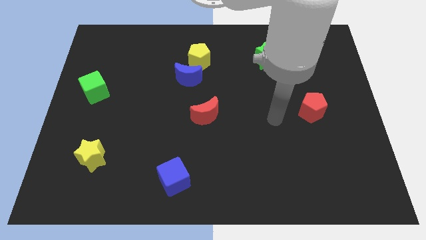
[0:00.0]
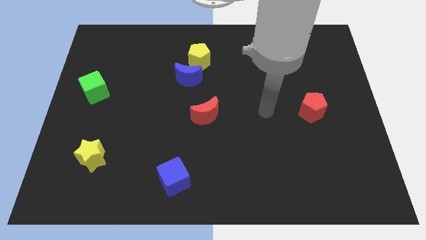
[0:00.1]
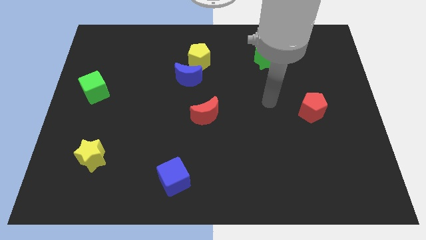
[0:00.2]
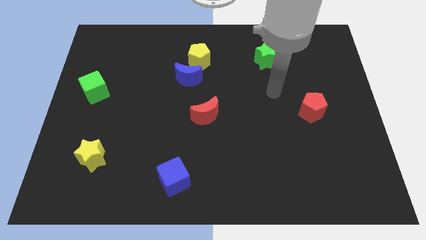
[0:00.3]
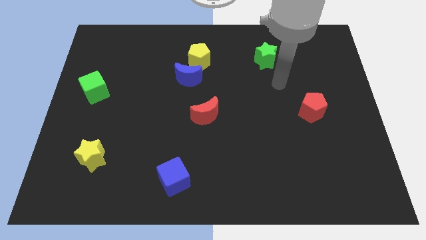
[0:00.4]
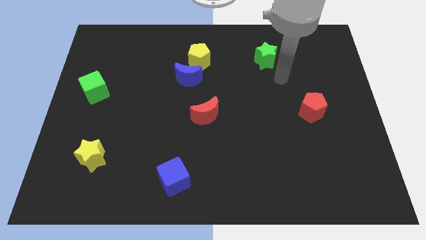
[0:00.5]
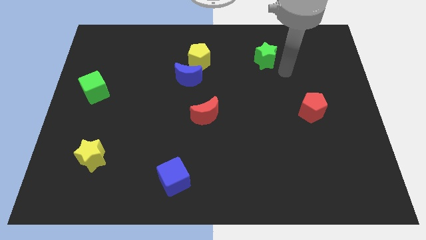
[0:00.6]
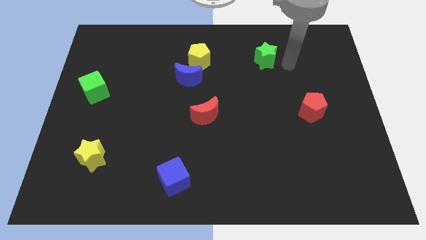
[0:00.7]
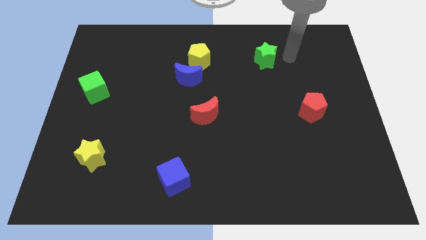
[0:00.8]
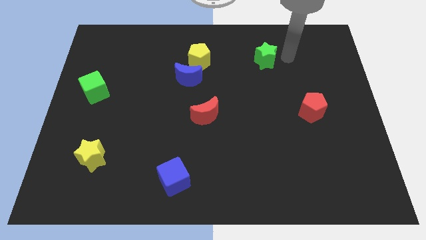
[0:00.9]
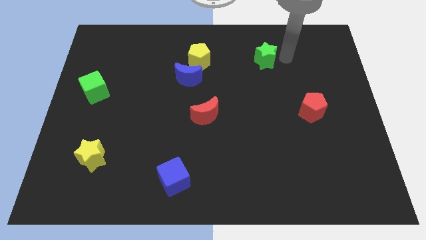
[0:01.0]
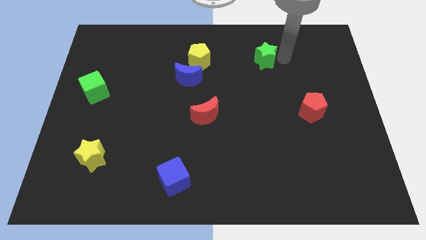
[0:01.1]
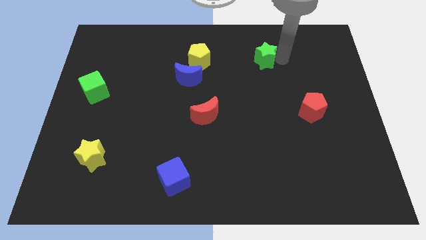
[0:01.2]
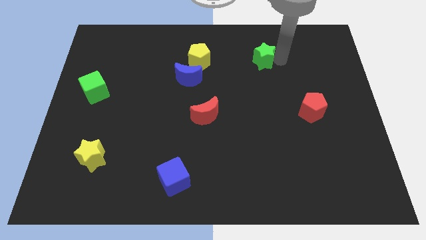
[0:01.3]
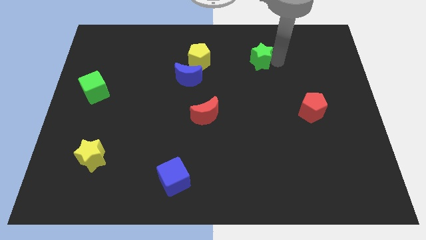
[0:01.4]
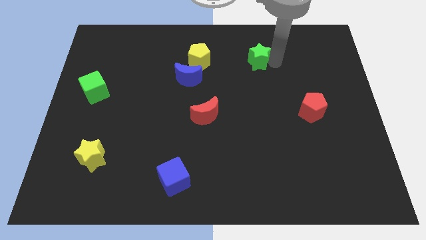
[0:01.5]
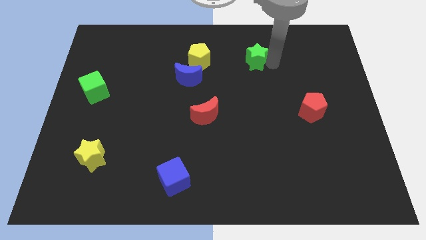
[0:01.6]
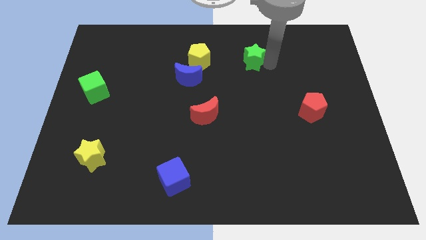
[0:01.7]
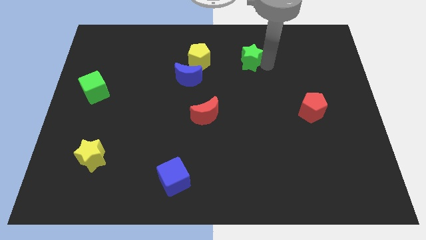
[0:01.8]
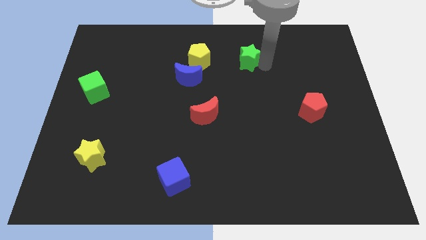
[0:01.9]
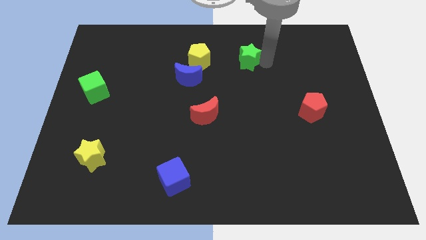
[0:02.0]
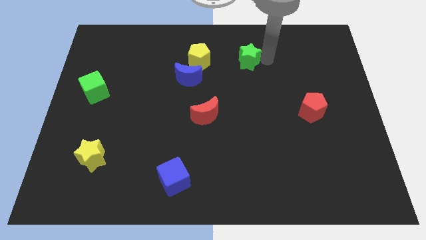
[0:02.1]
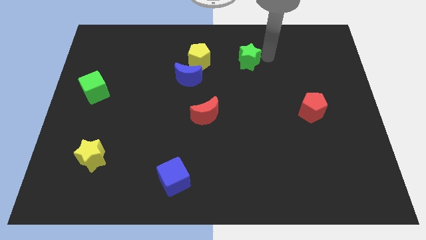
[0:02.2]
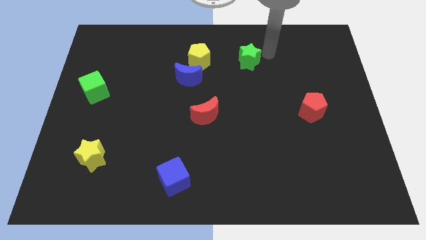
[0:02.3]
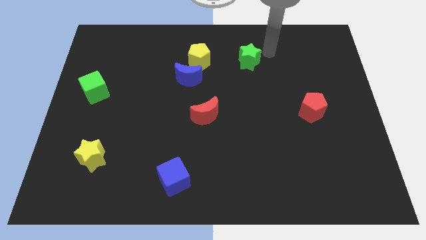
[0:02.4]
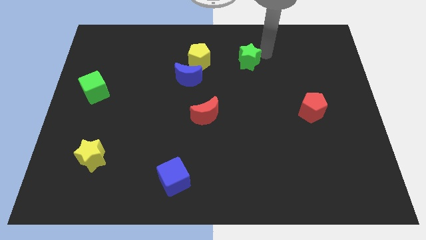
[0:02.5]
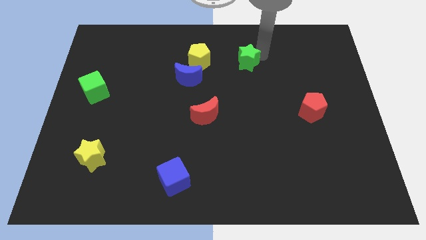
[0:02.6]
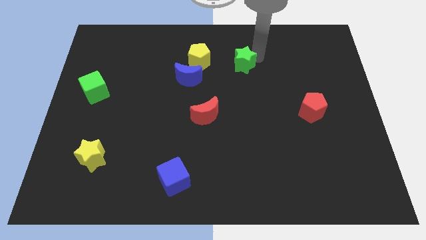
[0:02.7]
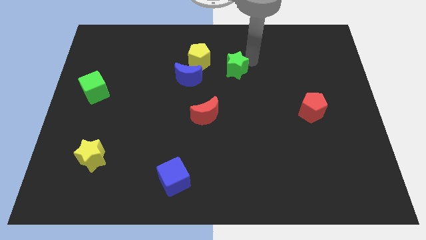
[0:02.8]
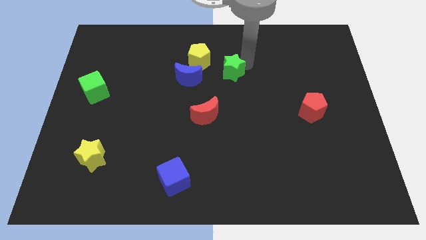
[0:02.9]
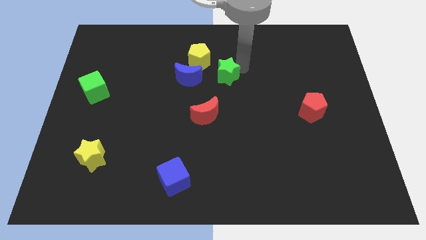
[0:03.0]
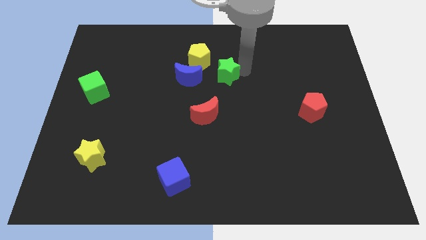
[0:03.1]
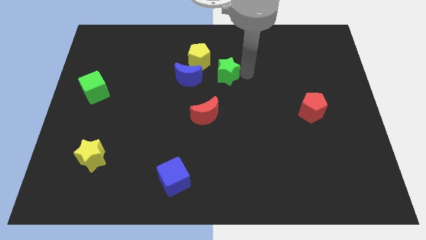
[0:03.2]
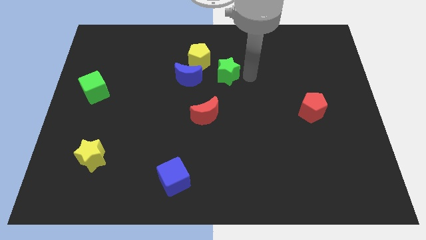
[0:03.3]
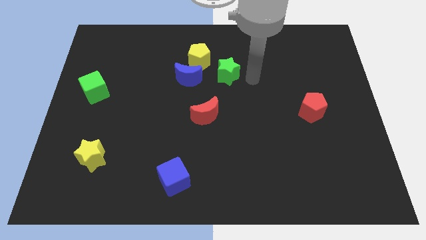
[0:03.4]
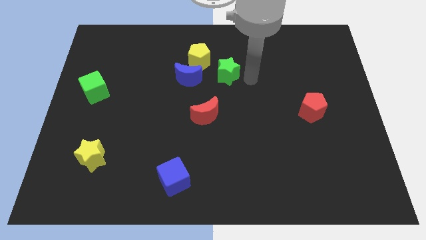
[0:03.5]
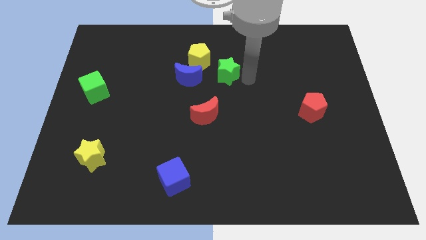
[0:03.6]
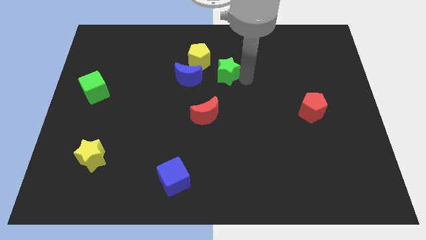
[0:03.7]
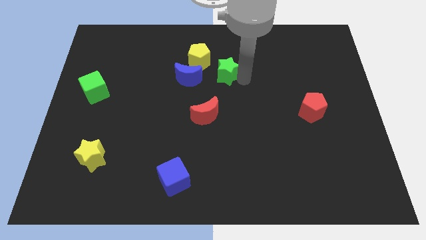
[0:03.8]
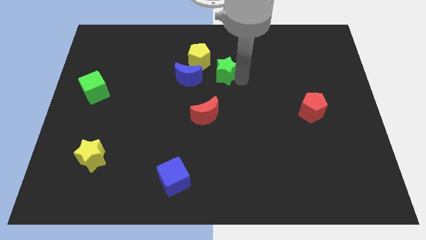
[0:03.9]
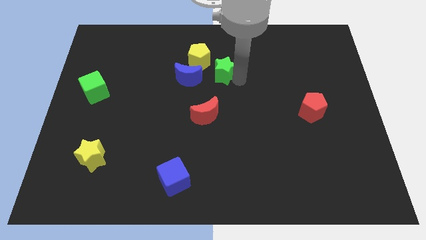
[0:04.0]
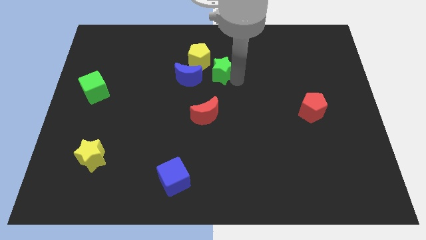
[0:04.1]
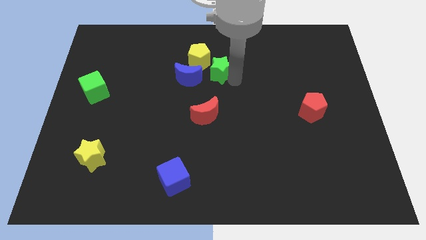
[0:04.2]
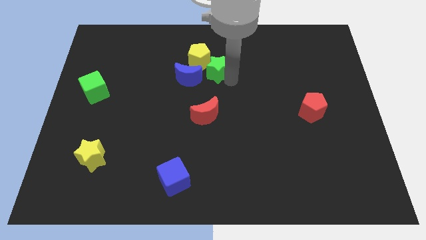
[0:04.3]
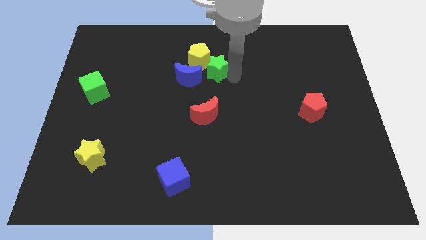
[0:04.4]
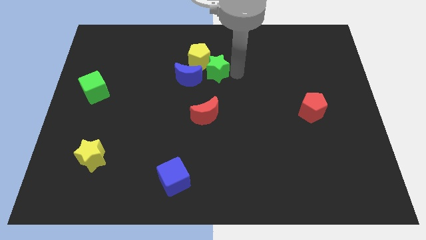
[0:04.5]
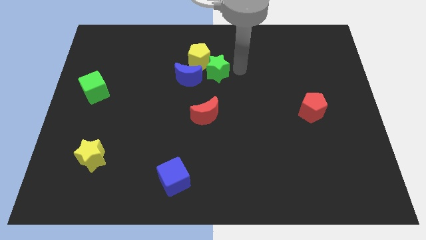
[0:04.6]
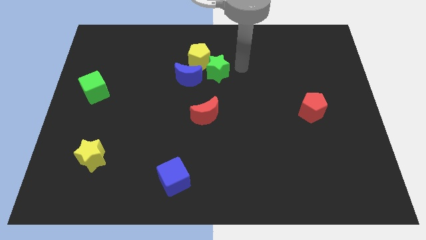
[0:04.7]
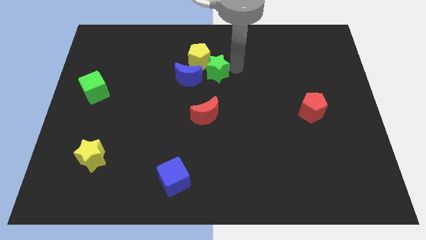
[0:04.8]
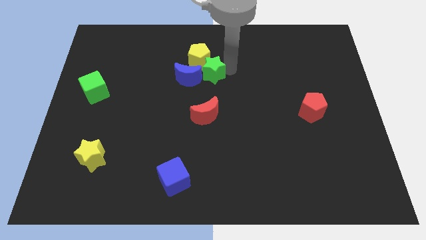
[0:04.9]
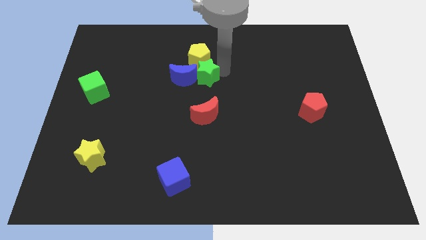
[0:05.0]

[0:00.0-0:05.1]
push the green star next to the blue moon

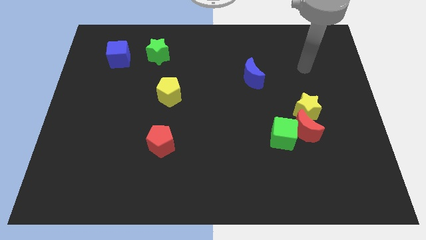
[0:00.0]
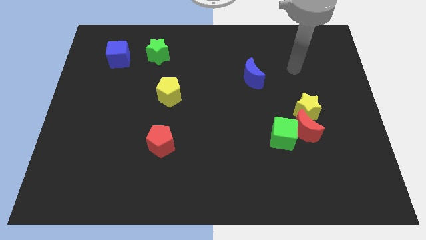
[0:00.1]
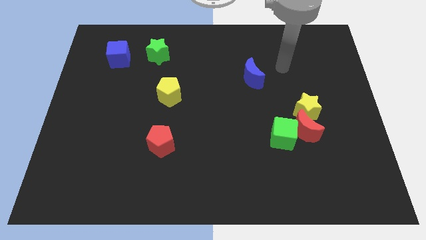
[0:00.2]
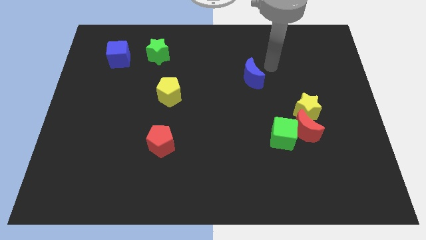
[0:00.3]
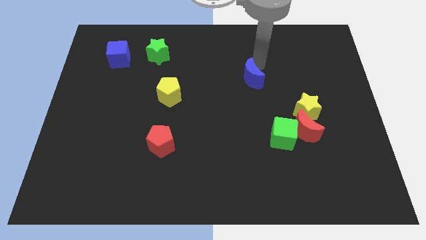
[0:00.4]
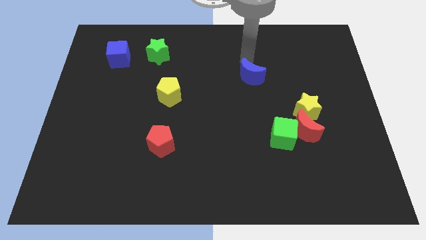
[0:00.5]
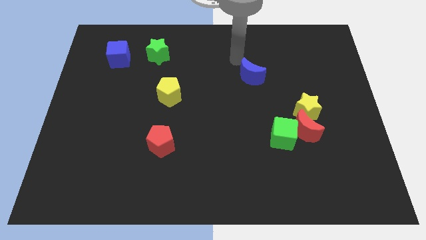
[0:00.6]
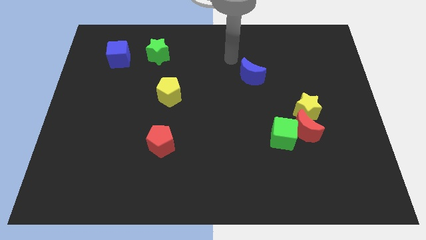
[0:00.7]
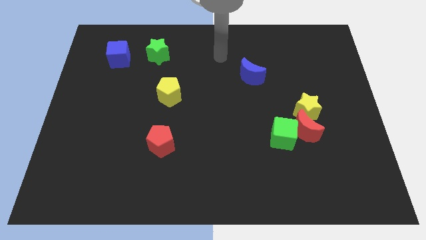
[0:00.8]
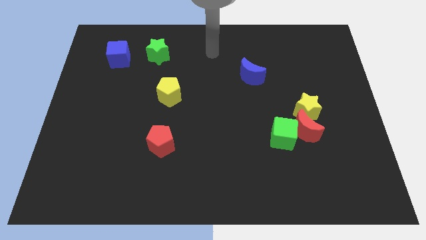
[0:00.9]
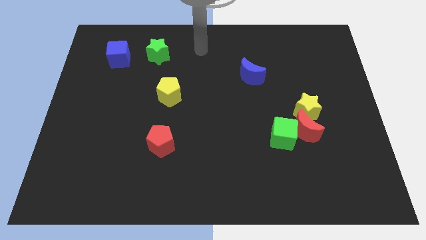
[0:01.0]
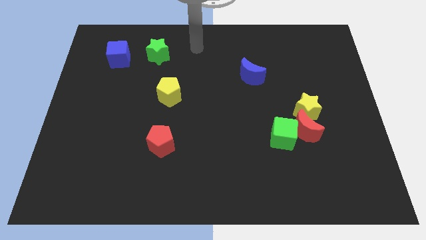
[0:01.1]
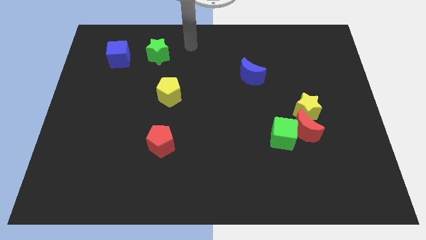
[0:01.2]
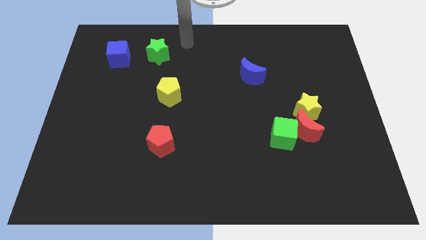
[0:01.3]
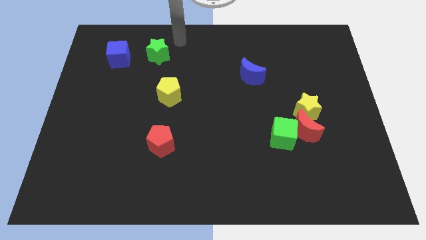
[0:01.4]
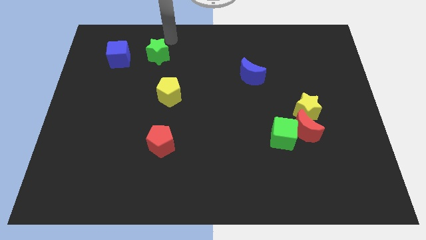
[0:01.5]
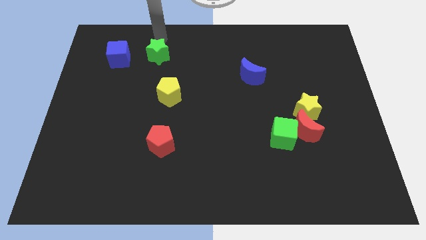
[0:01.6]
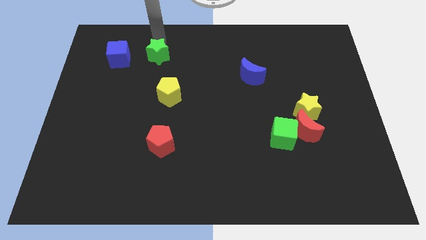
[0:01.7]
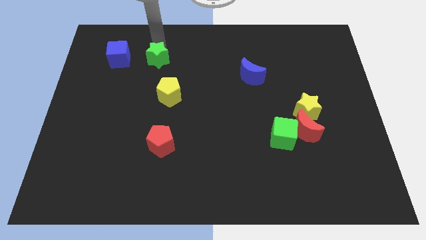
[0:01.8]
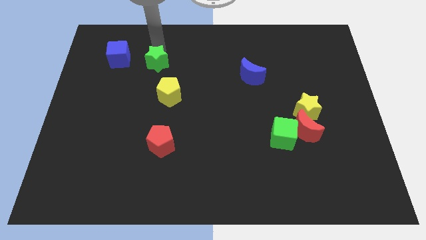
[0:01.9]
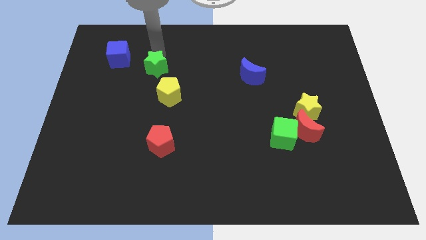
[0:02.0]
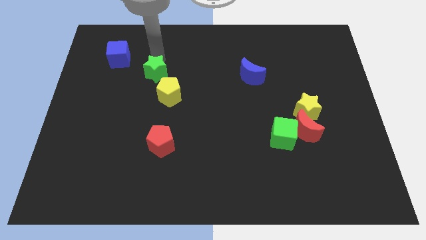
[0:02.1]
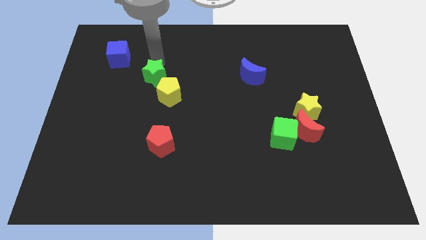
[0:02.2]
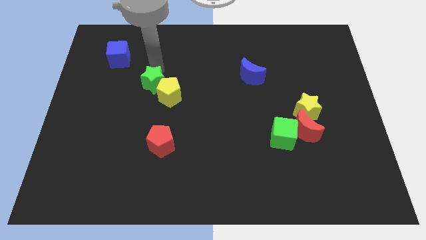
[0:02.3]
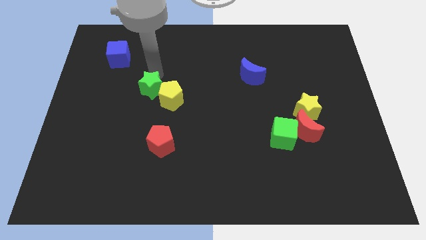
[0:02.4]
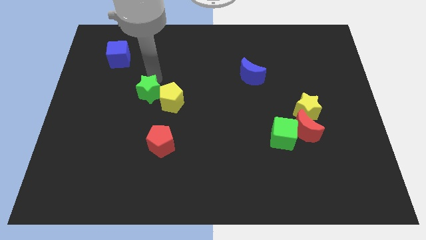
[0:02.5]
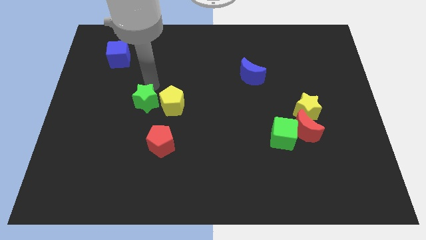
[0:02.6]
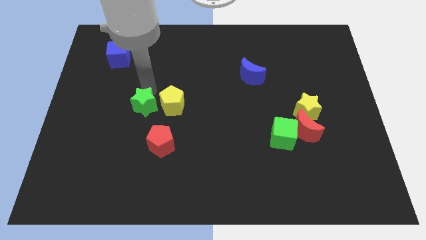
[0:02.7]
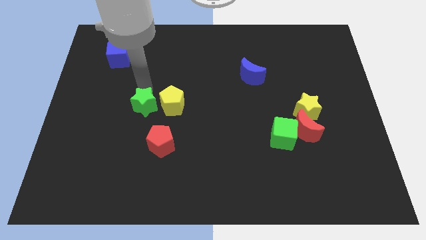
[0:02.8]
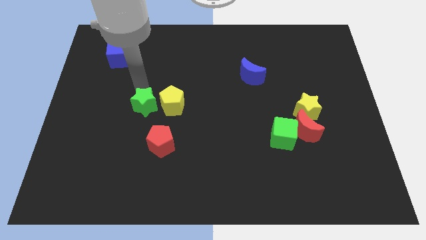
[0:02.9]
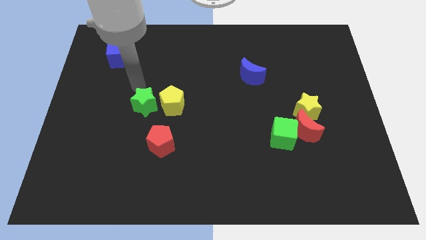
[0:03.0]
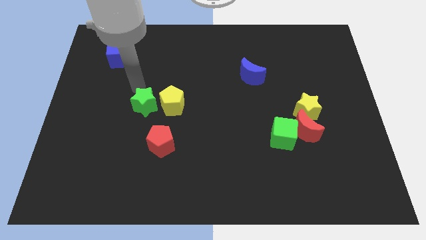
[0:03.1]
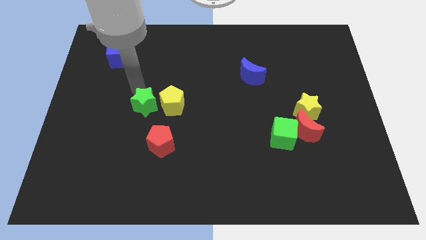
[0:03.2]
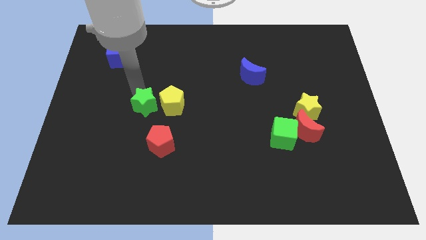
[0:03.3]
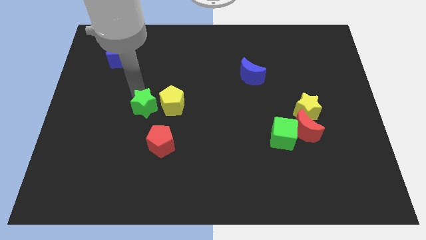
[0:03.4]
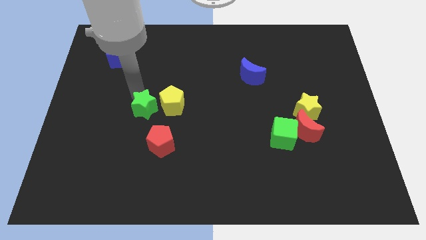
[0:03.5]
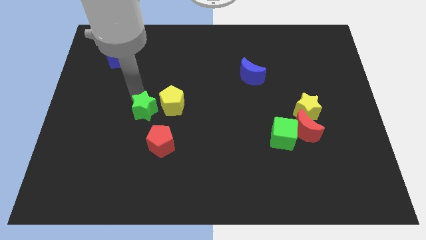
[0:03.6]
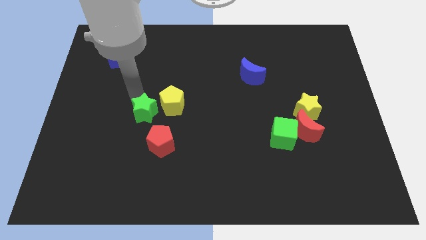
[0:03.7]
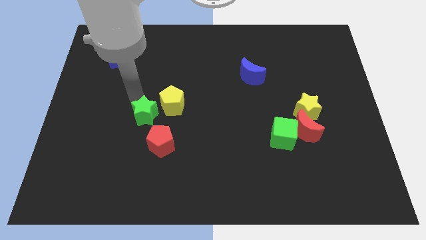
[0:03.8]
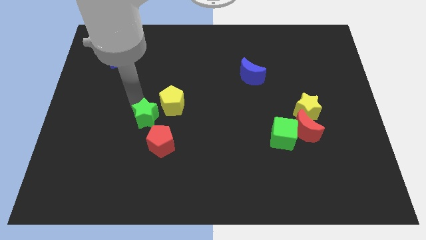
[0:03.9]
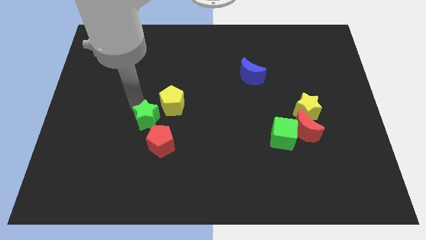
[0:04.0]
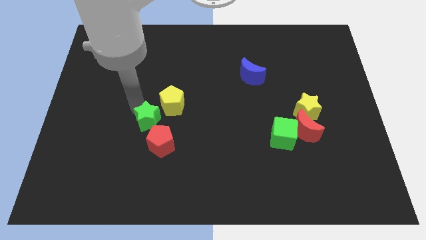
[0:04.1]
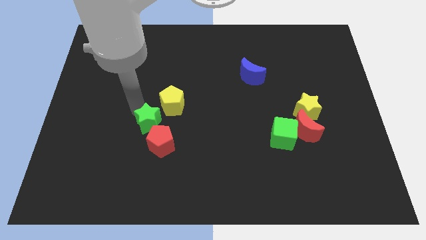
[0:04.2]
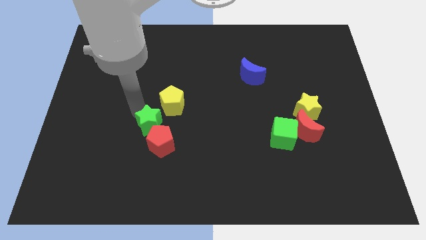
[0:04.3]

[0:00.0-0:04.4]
put the green star towards the red pentagon
